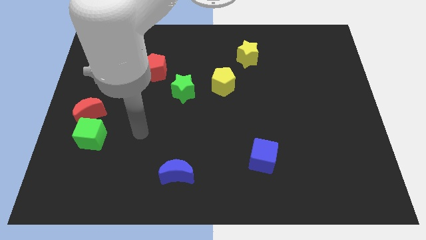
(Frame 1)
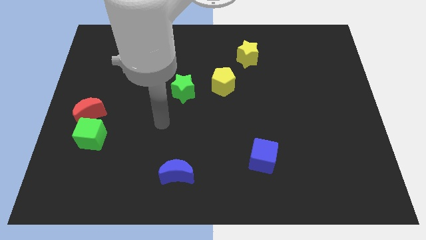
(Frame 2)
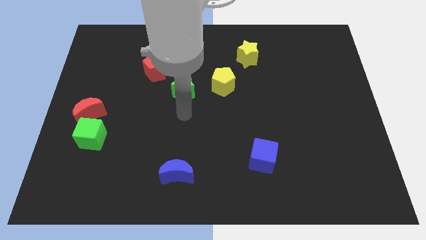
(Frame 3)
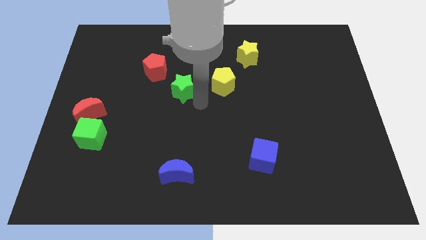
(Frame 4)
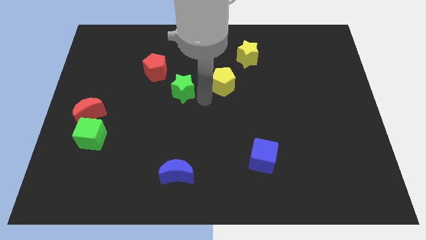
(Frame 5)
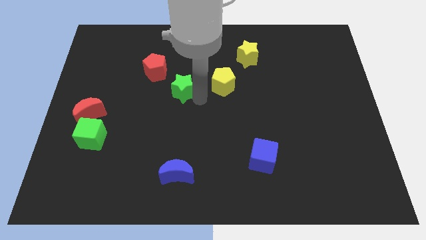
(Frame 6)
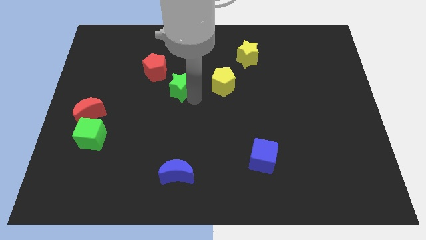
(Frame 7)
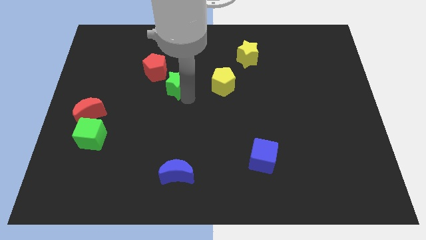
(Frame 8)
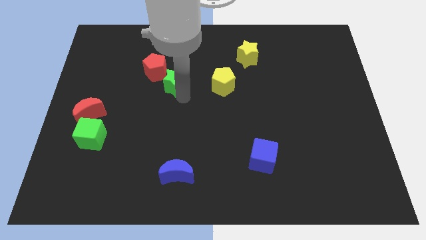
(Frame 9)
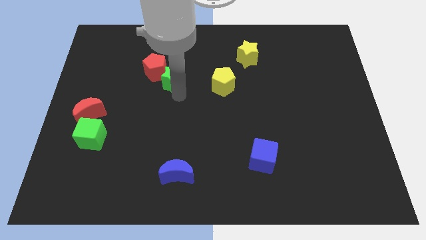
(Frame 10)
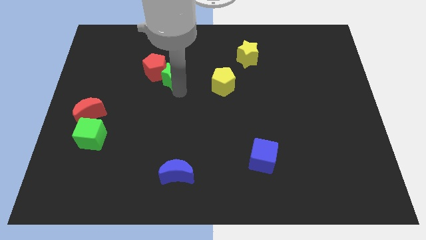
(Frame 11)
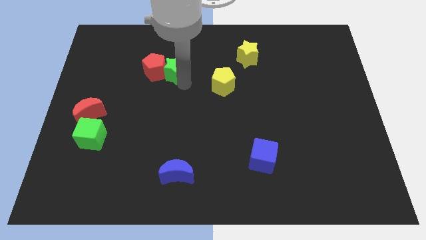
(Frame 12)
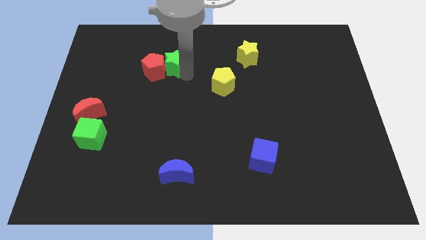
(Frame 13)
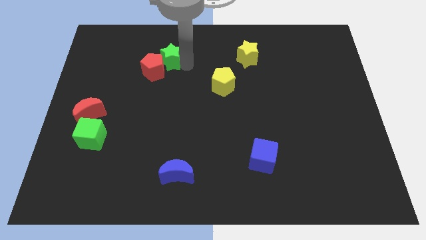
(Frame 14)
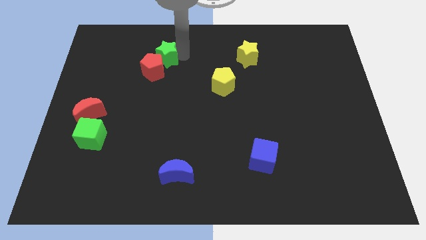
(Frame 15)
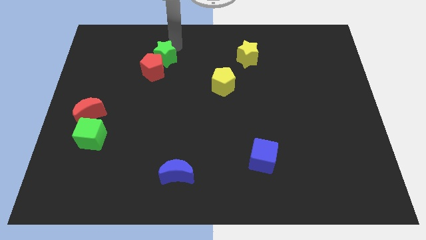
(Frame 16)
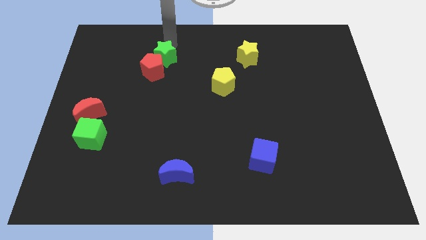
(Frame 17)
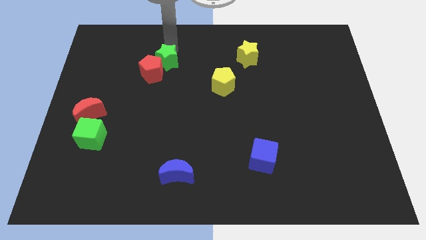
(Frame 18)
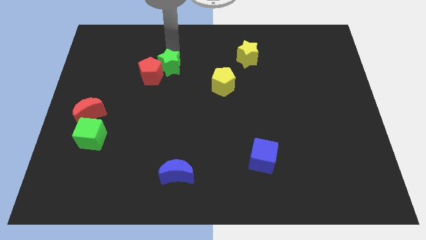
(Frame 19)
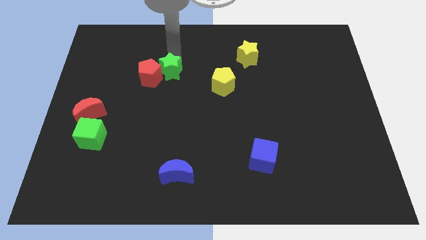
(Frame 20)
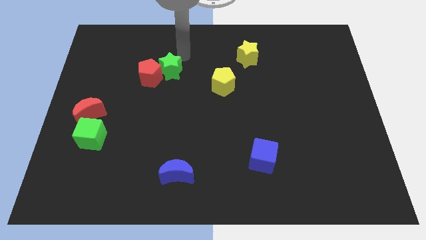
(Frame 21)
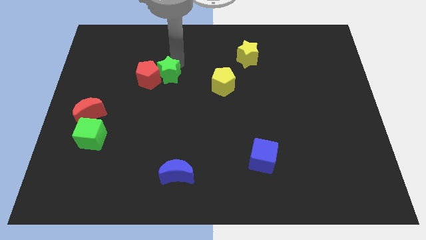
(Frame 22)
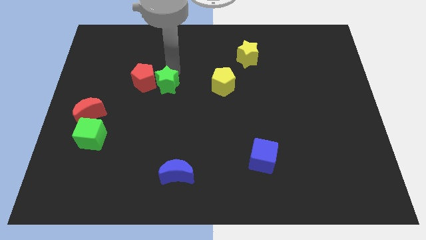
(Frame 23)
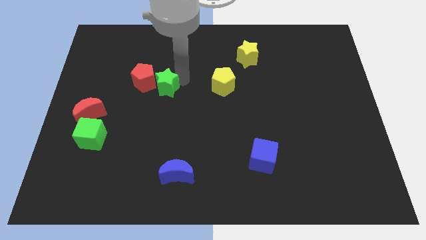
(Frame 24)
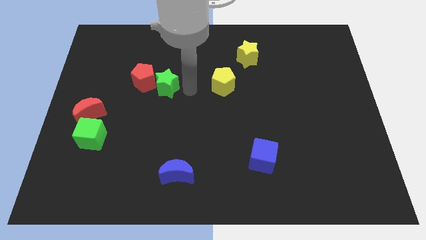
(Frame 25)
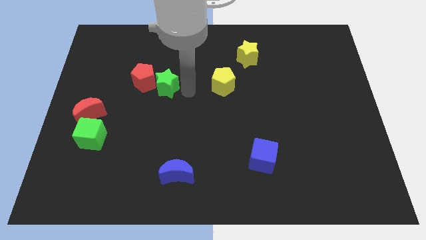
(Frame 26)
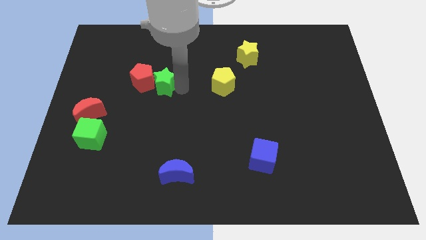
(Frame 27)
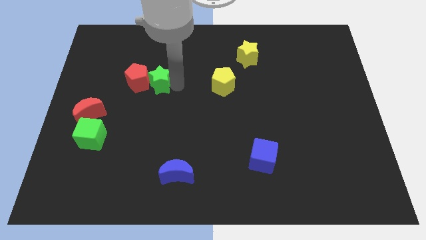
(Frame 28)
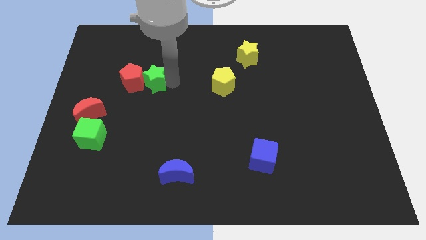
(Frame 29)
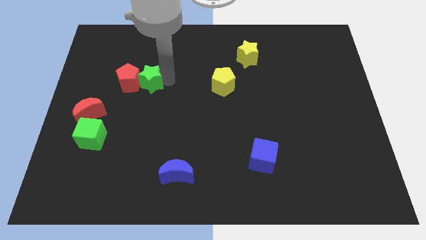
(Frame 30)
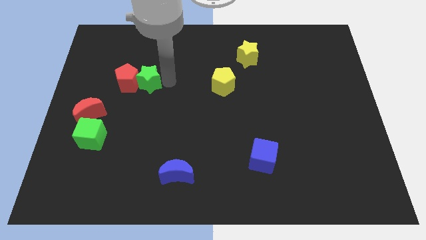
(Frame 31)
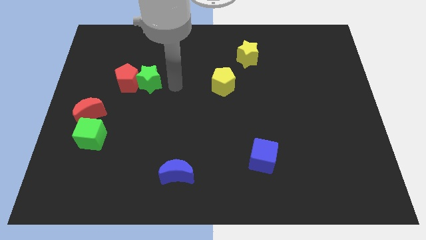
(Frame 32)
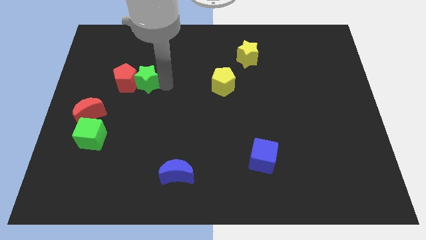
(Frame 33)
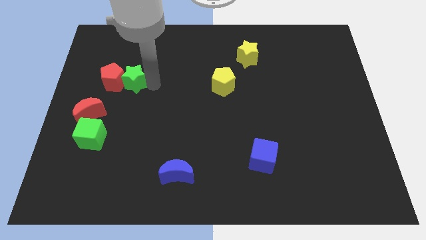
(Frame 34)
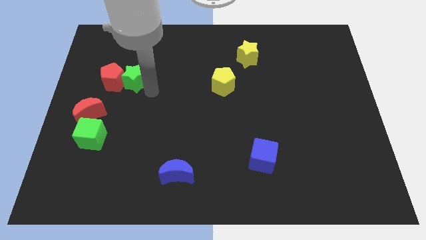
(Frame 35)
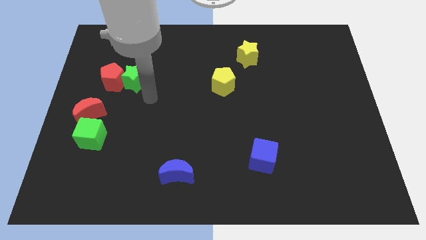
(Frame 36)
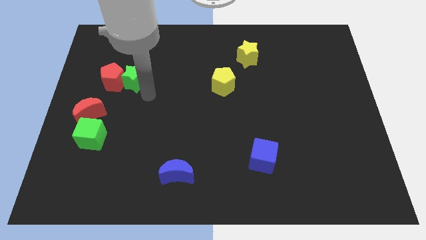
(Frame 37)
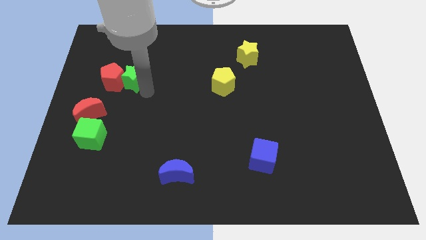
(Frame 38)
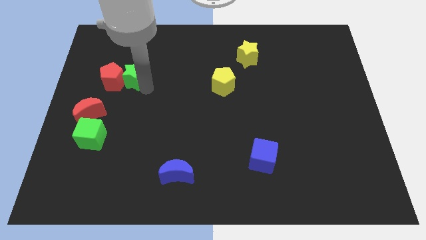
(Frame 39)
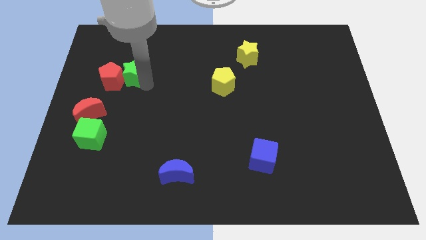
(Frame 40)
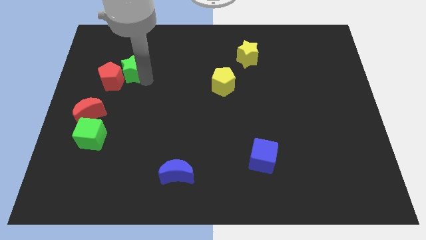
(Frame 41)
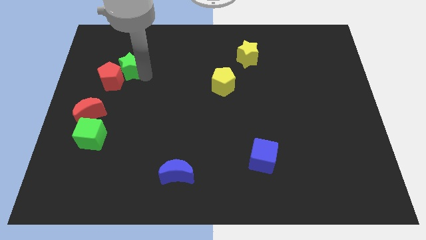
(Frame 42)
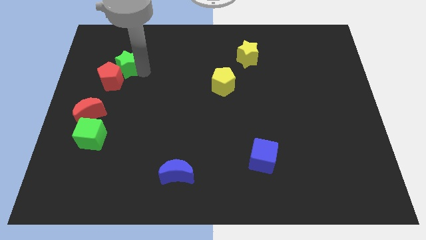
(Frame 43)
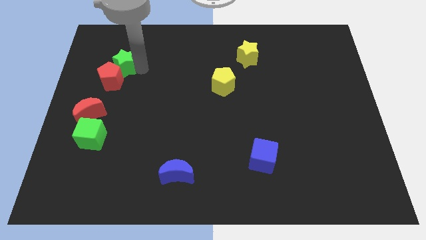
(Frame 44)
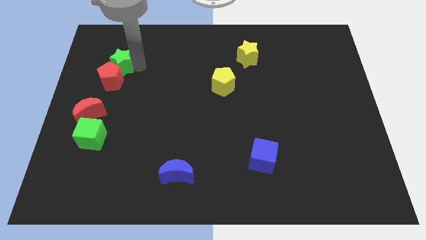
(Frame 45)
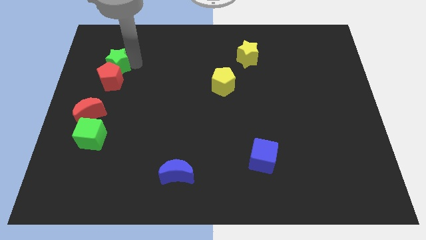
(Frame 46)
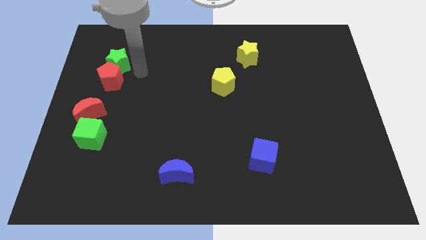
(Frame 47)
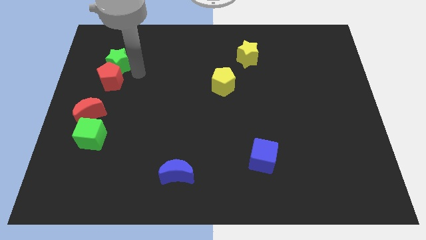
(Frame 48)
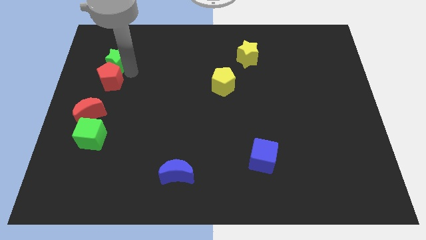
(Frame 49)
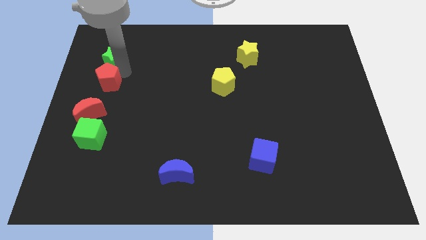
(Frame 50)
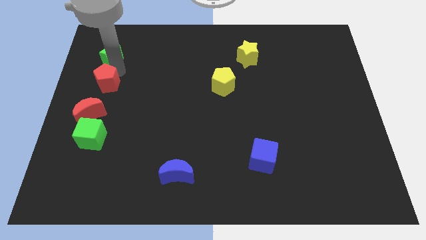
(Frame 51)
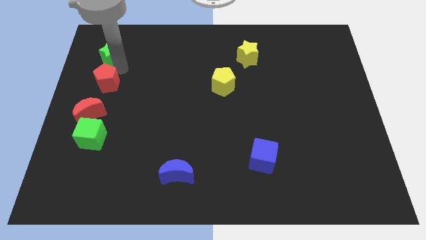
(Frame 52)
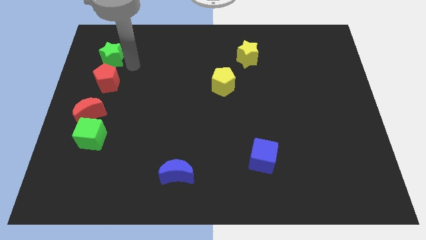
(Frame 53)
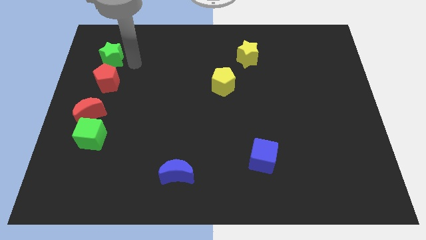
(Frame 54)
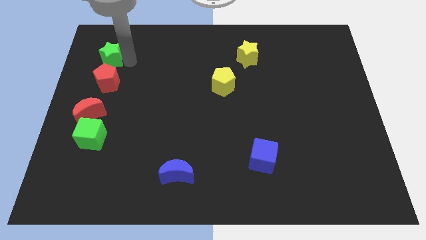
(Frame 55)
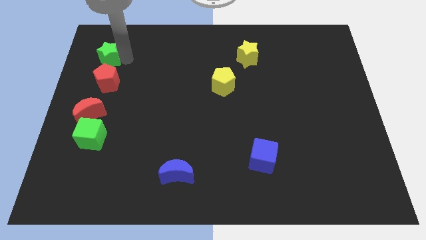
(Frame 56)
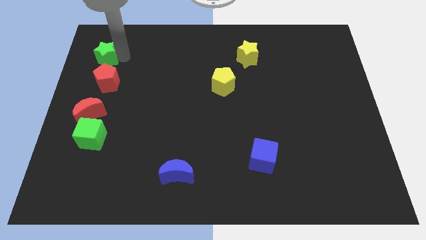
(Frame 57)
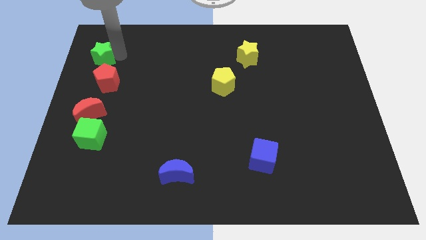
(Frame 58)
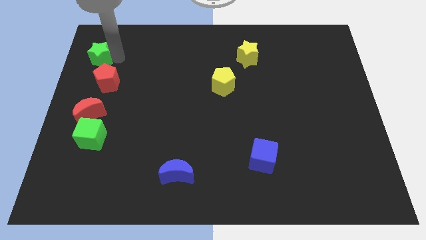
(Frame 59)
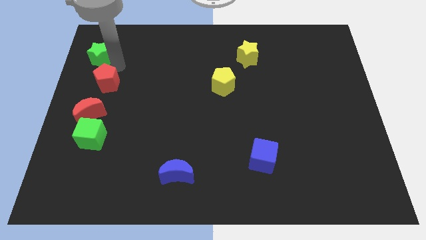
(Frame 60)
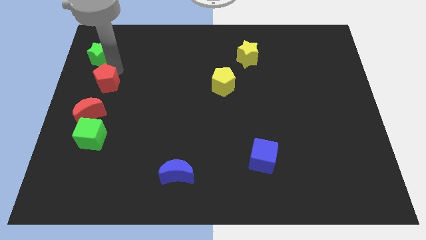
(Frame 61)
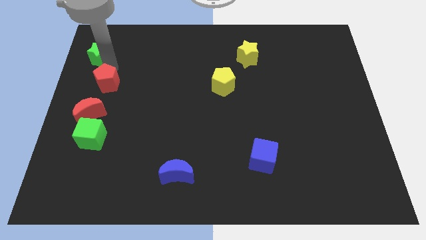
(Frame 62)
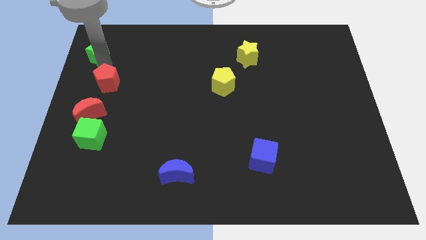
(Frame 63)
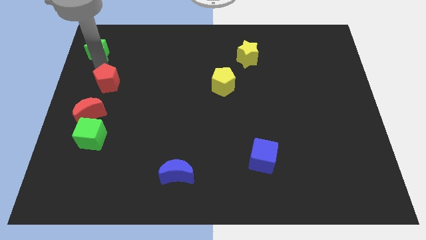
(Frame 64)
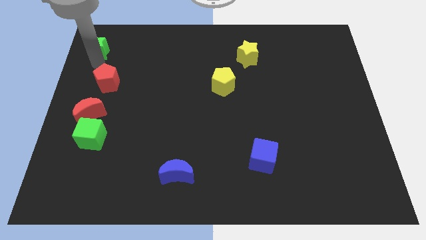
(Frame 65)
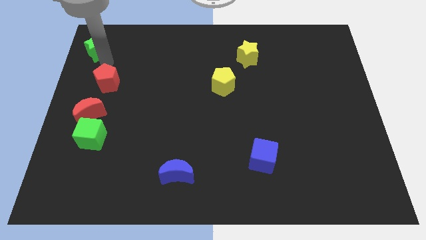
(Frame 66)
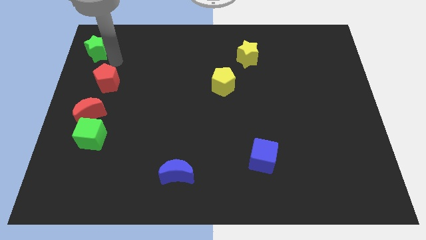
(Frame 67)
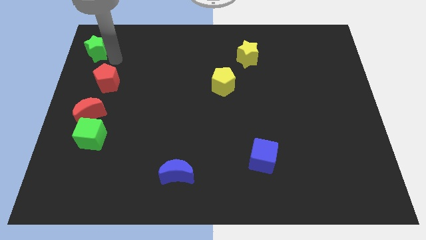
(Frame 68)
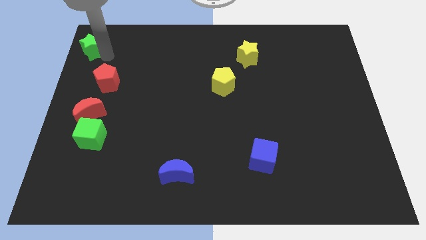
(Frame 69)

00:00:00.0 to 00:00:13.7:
move the green star to the top left of the board

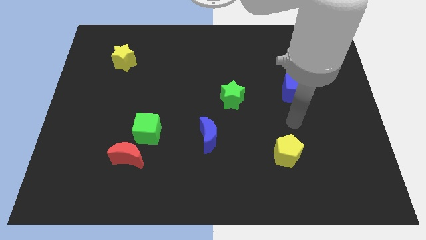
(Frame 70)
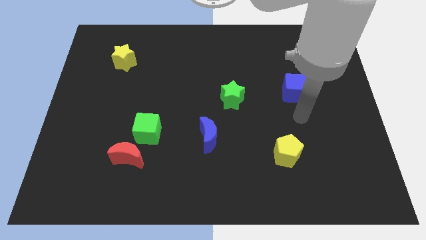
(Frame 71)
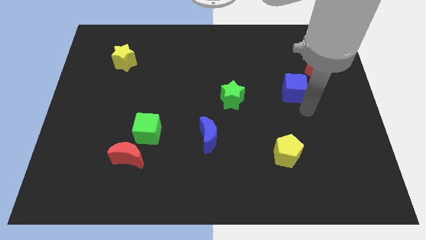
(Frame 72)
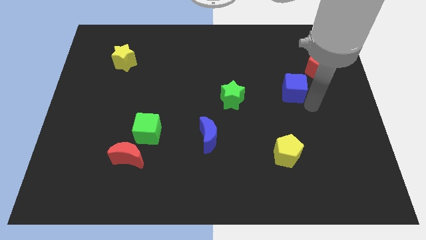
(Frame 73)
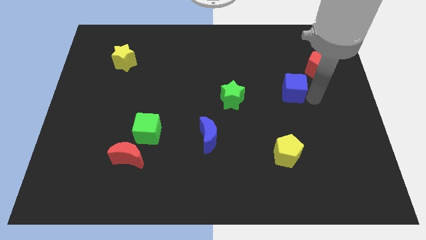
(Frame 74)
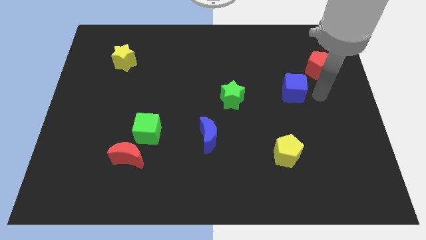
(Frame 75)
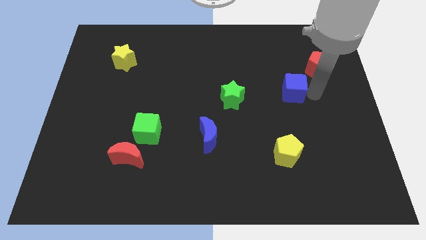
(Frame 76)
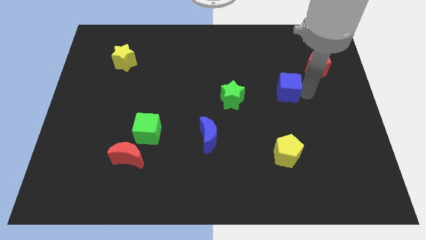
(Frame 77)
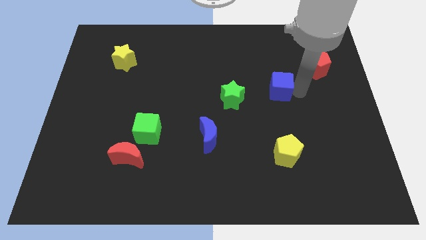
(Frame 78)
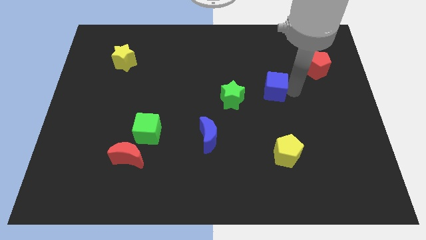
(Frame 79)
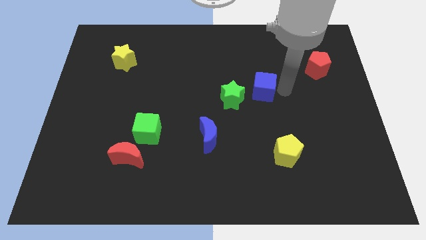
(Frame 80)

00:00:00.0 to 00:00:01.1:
move the blue cube to the middle of the board
